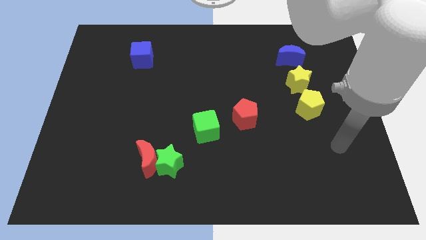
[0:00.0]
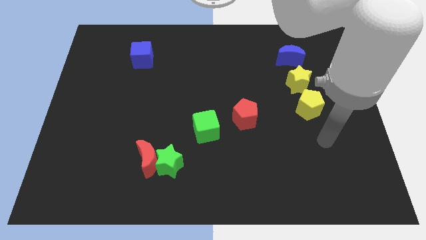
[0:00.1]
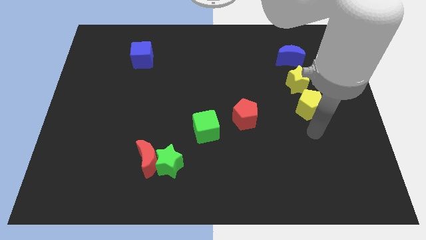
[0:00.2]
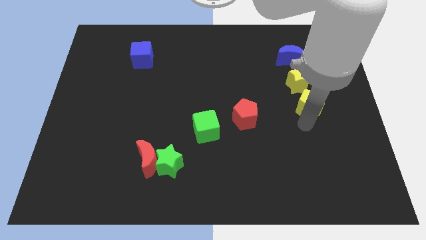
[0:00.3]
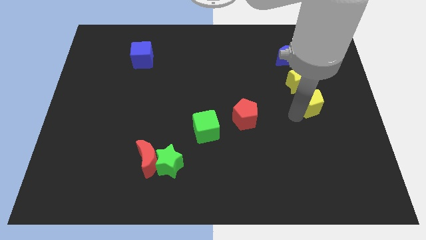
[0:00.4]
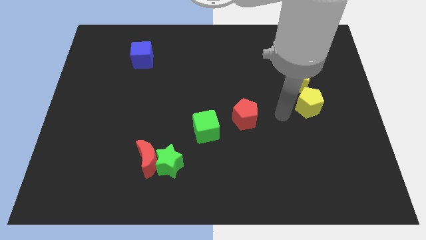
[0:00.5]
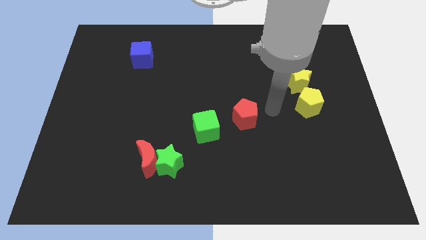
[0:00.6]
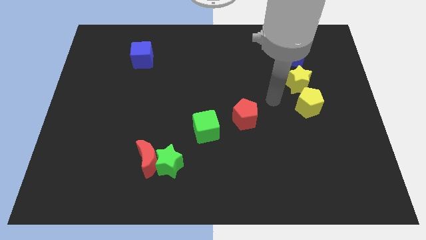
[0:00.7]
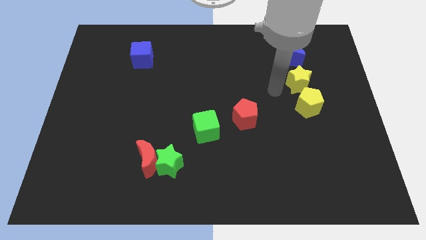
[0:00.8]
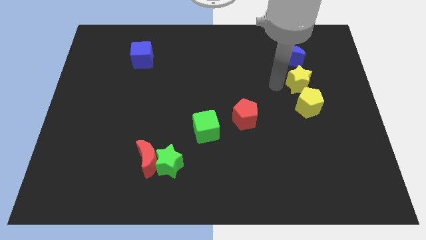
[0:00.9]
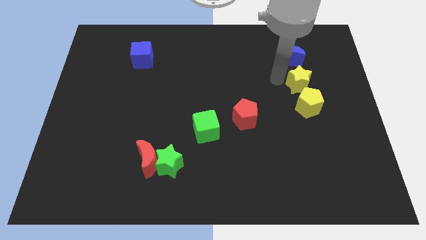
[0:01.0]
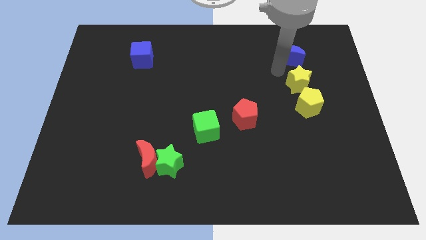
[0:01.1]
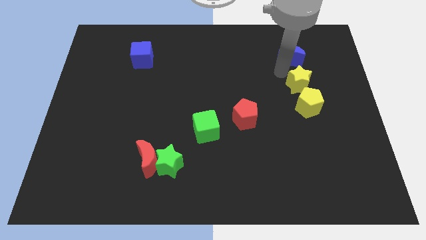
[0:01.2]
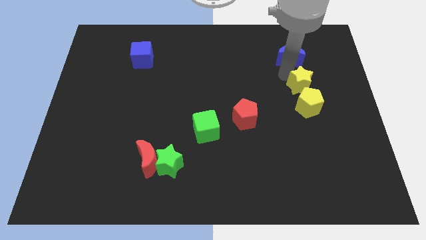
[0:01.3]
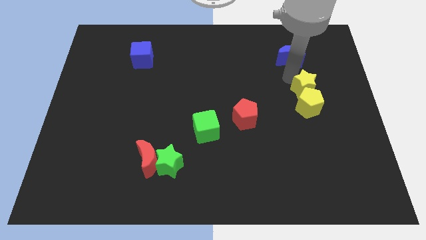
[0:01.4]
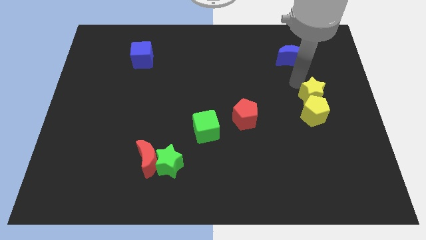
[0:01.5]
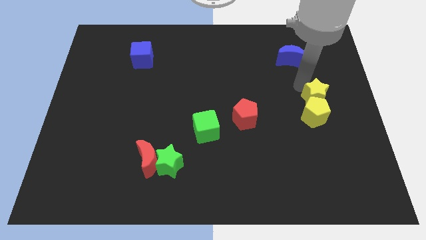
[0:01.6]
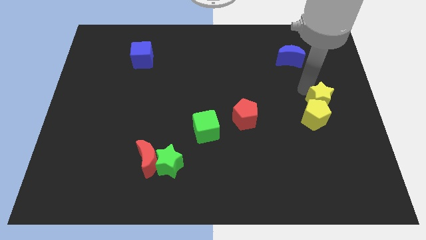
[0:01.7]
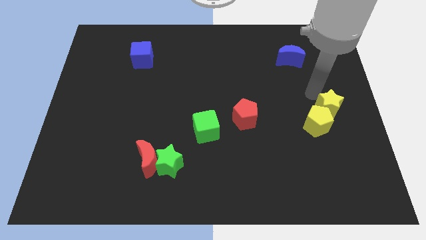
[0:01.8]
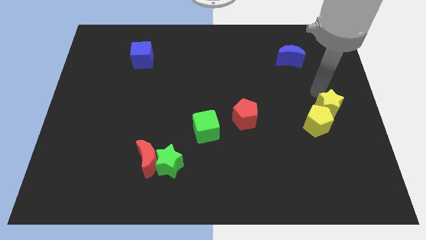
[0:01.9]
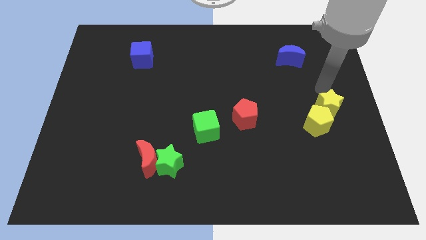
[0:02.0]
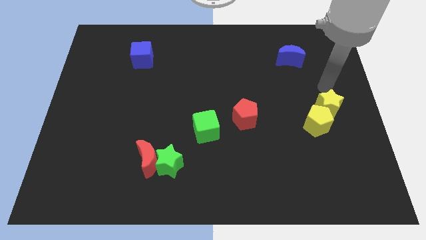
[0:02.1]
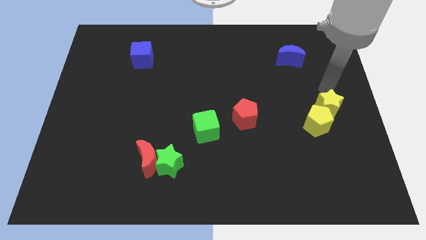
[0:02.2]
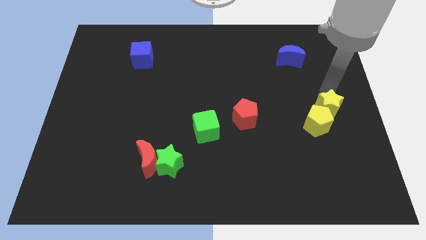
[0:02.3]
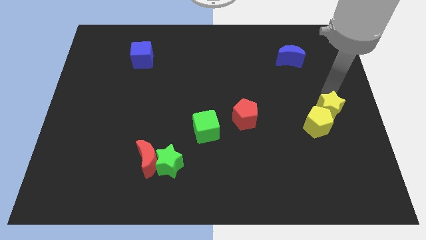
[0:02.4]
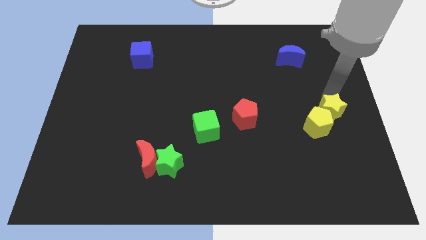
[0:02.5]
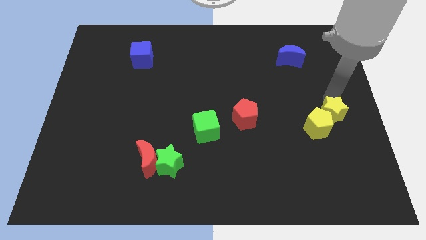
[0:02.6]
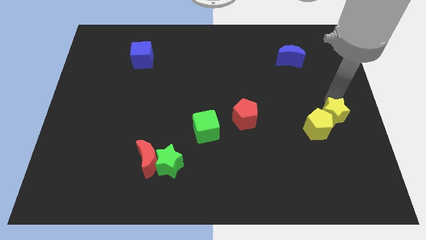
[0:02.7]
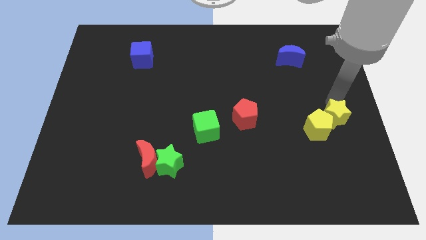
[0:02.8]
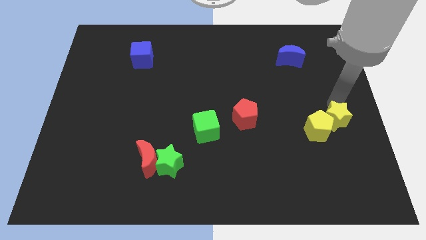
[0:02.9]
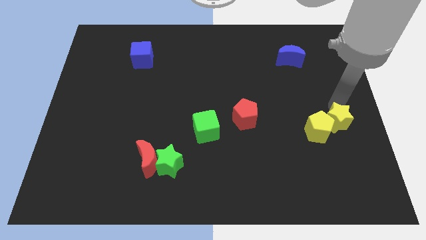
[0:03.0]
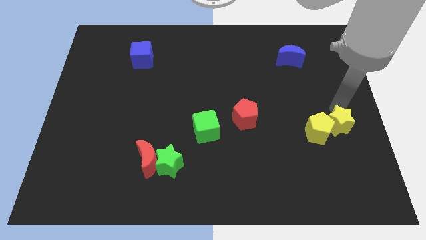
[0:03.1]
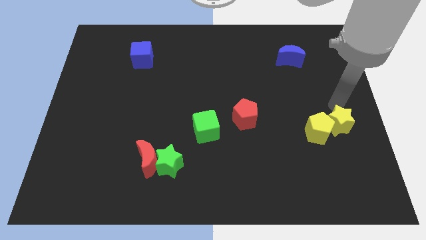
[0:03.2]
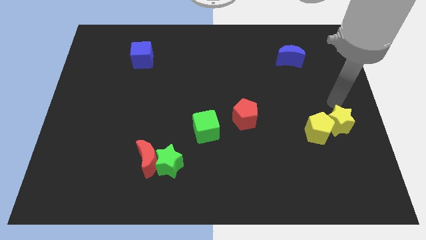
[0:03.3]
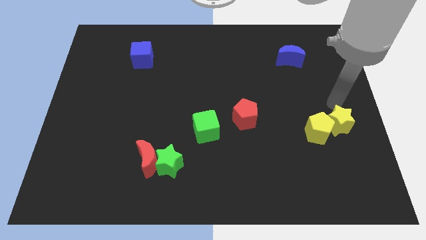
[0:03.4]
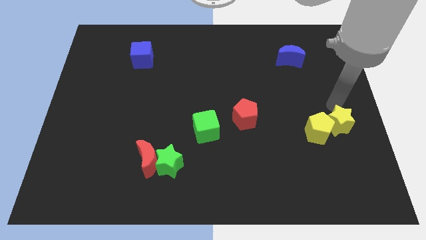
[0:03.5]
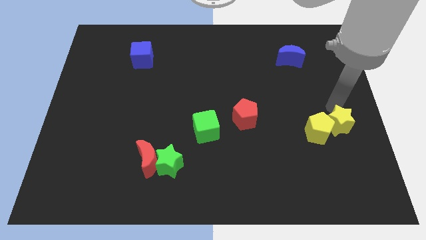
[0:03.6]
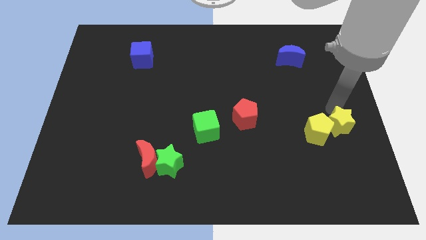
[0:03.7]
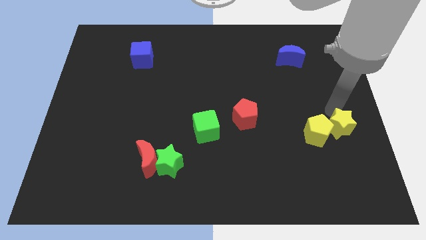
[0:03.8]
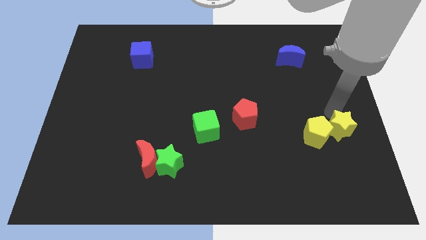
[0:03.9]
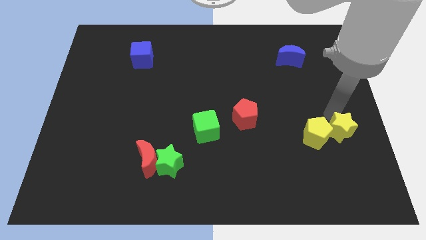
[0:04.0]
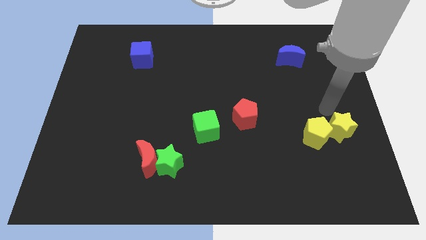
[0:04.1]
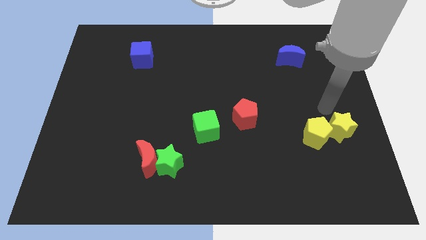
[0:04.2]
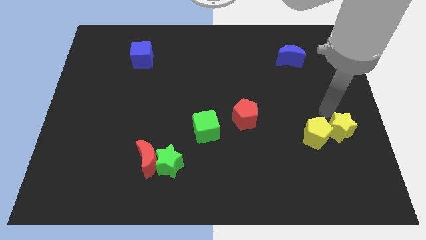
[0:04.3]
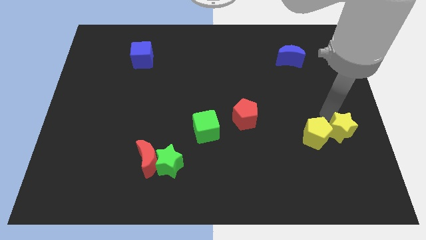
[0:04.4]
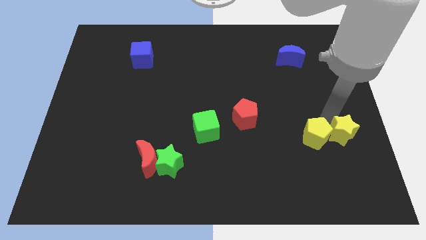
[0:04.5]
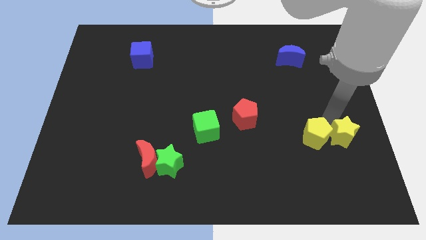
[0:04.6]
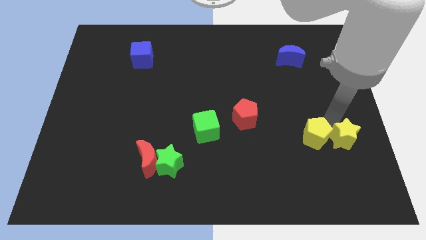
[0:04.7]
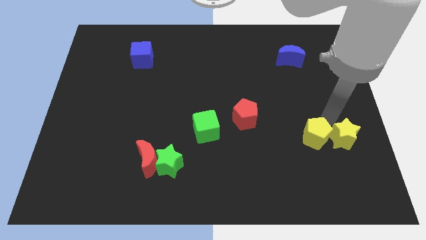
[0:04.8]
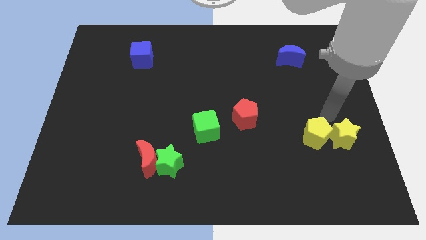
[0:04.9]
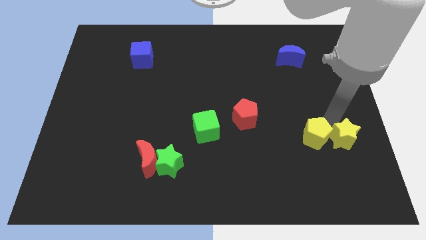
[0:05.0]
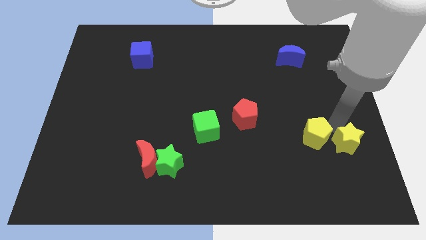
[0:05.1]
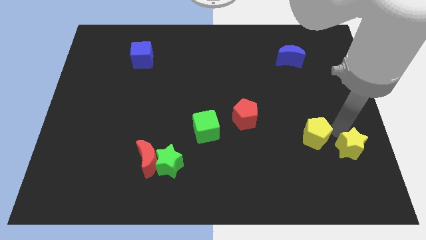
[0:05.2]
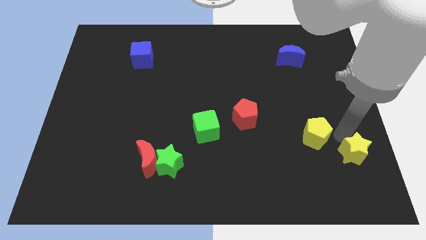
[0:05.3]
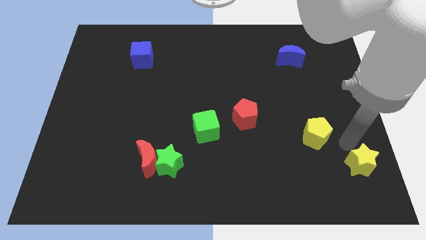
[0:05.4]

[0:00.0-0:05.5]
put the yellow star to the lower right corner

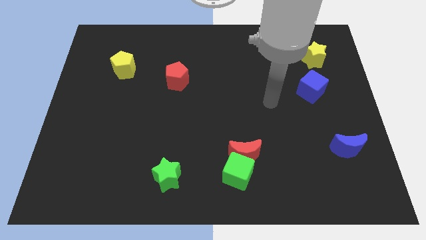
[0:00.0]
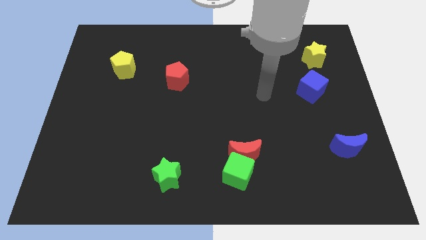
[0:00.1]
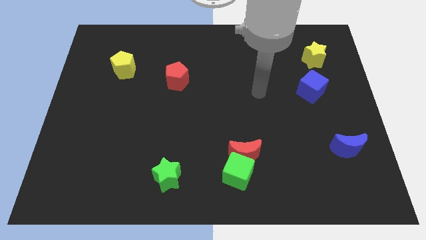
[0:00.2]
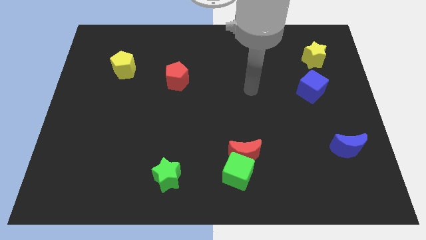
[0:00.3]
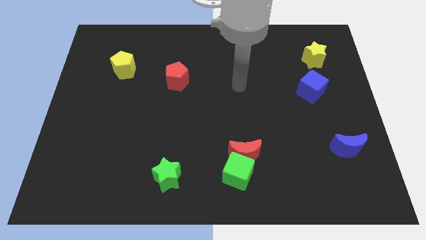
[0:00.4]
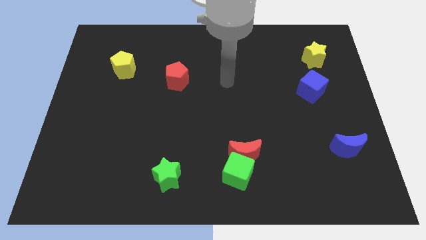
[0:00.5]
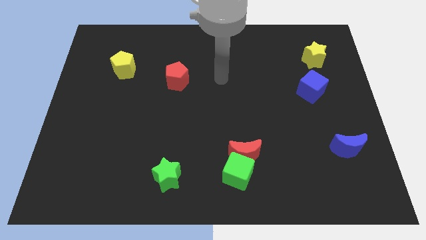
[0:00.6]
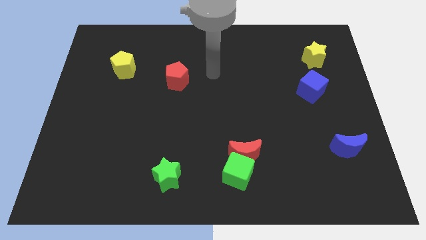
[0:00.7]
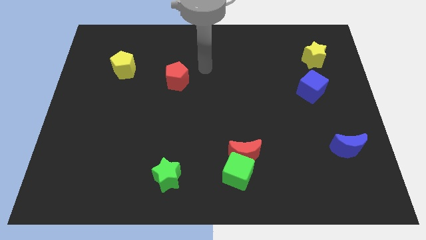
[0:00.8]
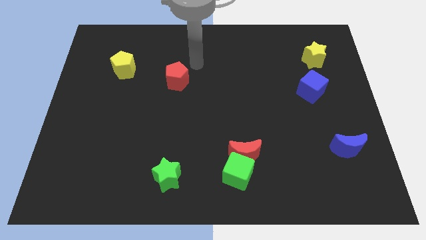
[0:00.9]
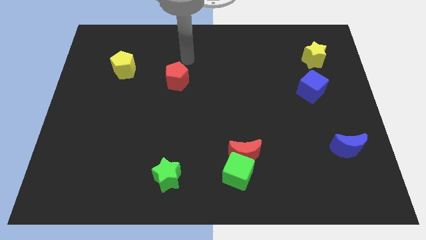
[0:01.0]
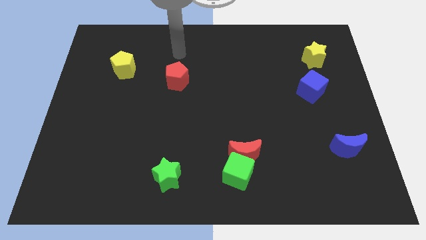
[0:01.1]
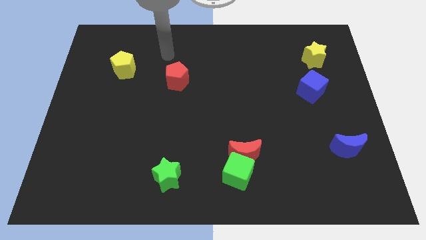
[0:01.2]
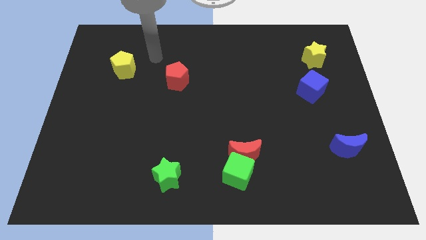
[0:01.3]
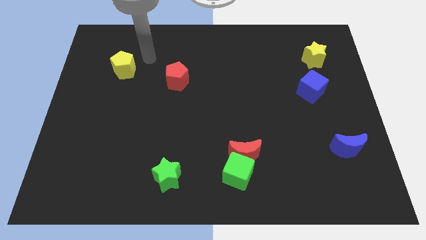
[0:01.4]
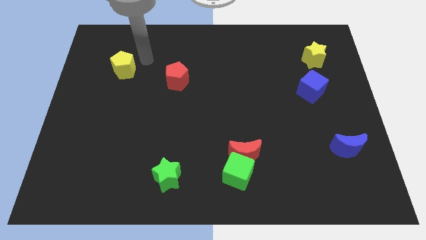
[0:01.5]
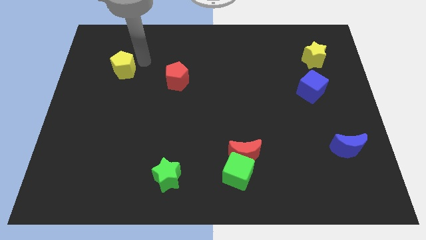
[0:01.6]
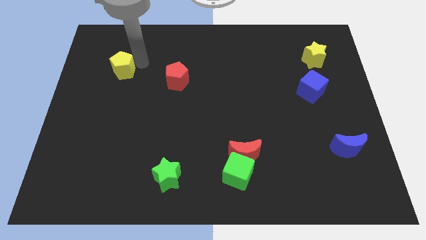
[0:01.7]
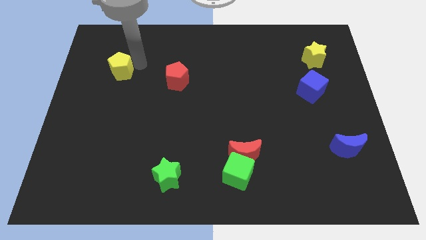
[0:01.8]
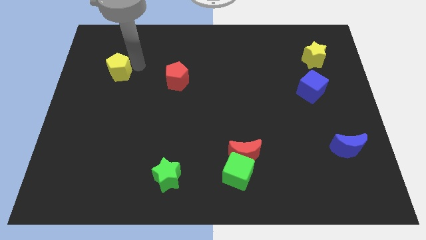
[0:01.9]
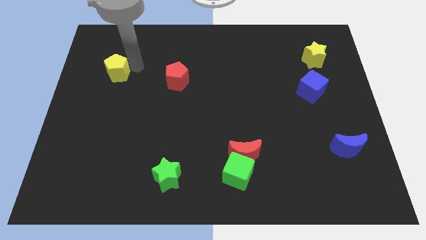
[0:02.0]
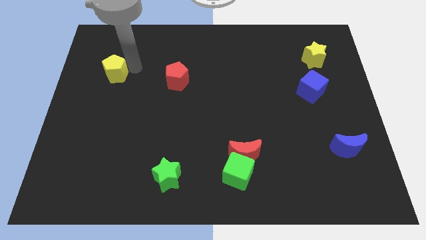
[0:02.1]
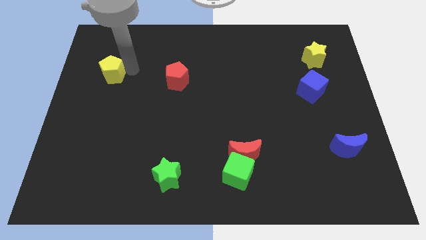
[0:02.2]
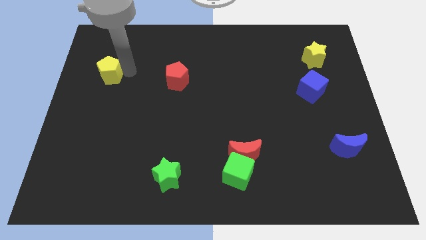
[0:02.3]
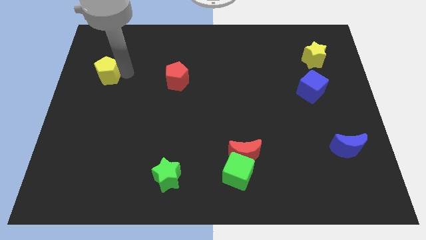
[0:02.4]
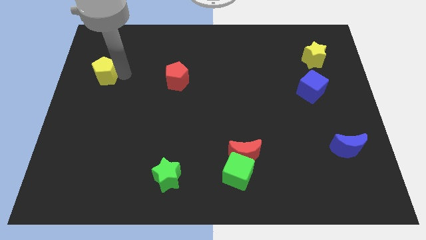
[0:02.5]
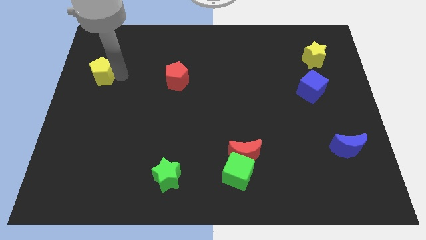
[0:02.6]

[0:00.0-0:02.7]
move the yellow pentagon to the center left
